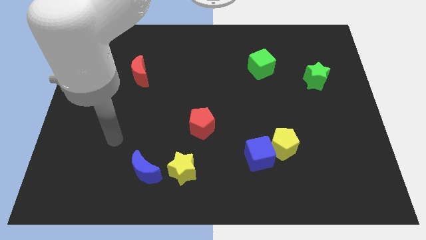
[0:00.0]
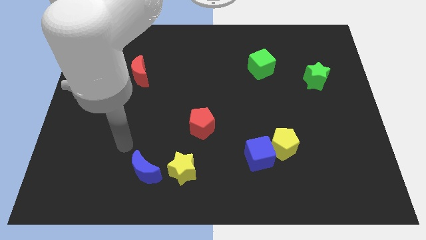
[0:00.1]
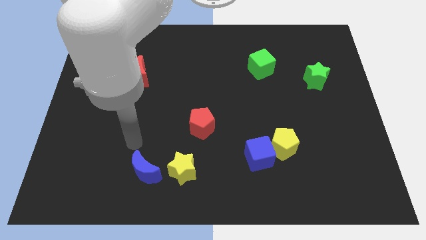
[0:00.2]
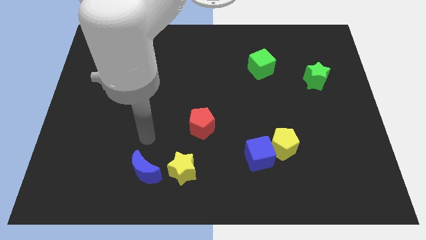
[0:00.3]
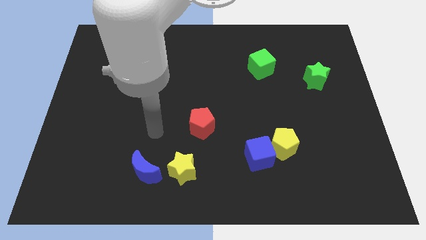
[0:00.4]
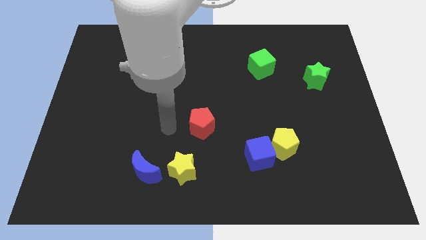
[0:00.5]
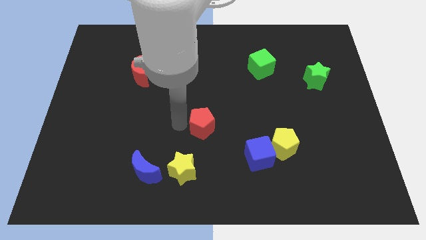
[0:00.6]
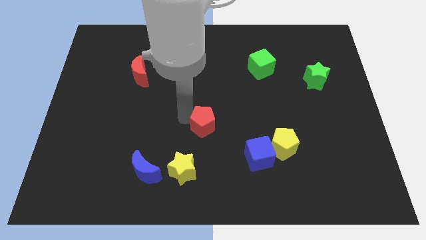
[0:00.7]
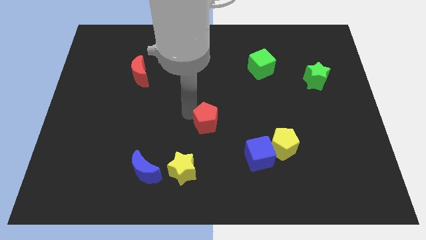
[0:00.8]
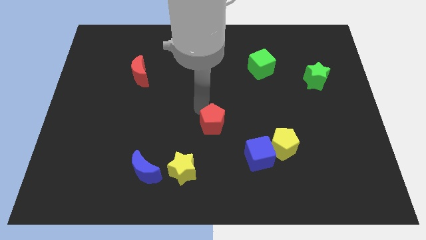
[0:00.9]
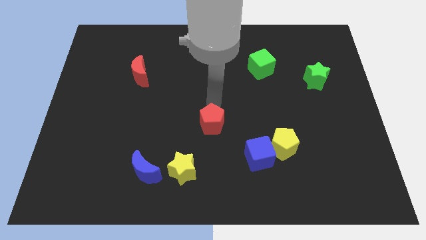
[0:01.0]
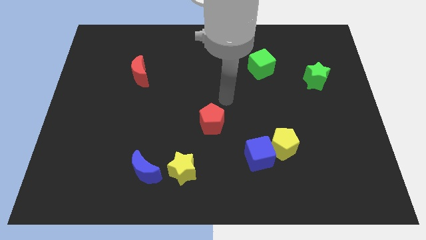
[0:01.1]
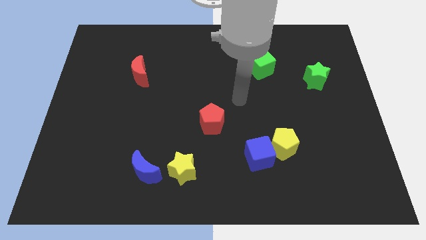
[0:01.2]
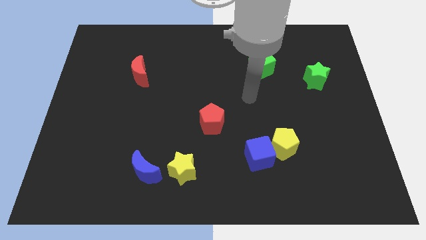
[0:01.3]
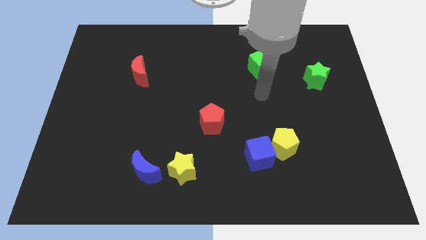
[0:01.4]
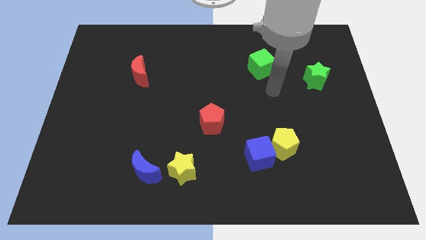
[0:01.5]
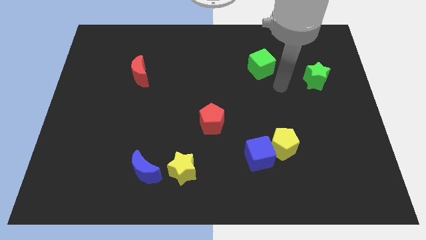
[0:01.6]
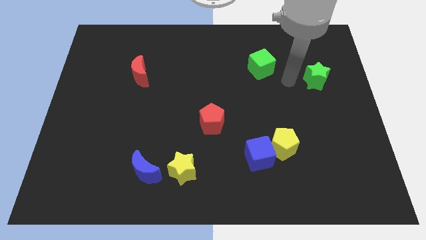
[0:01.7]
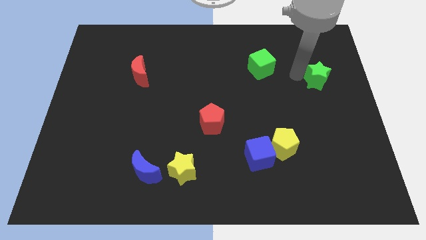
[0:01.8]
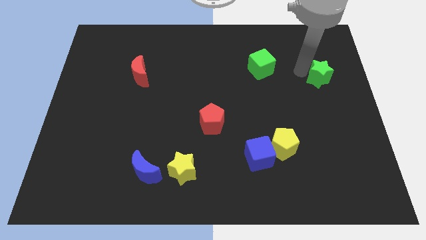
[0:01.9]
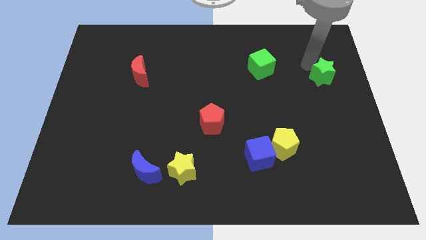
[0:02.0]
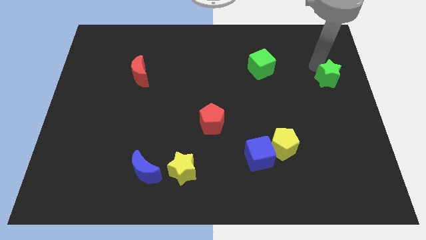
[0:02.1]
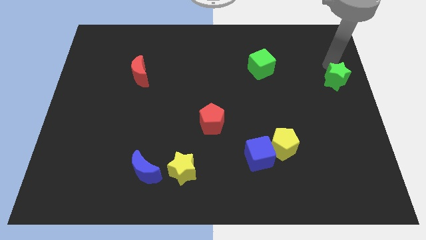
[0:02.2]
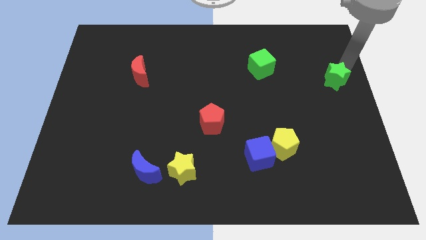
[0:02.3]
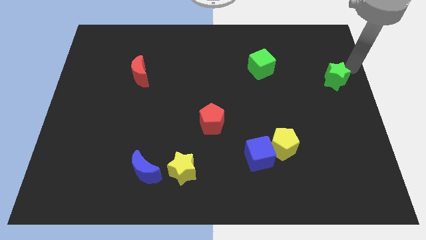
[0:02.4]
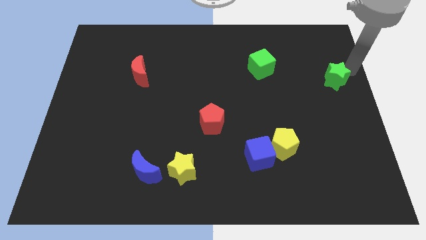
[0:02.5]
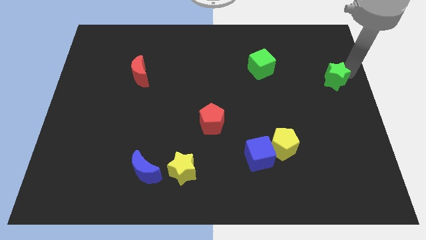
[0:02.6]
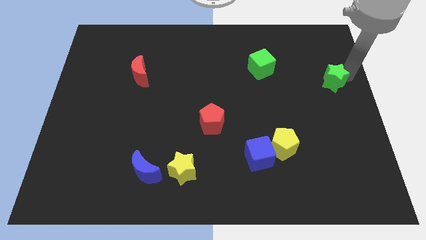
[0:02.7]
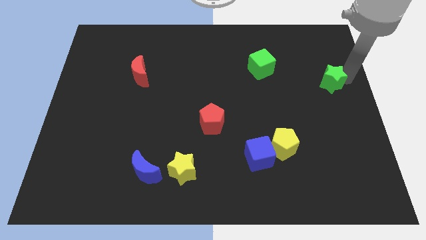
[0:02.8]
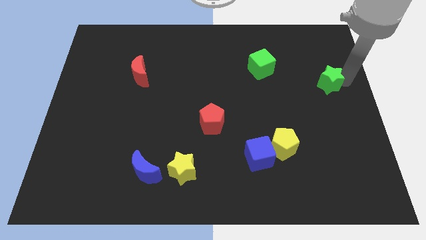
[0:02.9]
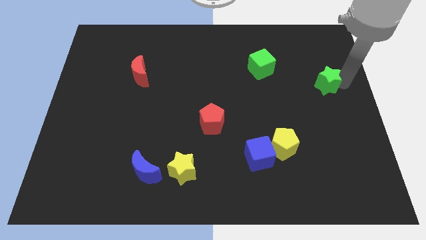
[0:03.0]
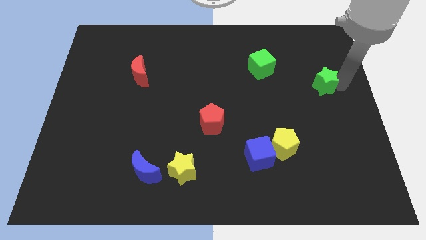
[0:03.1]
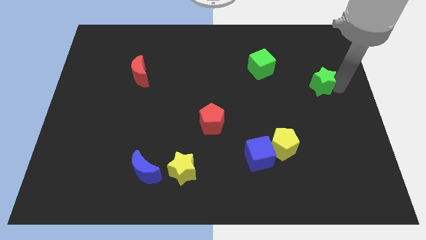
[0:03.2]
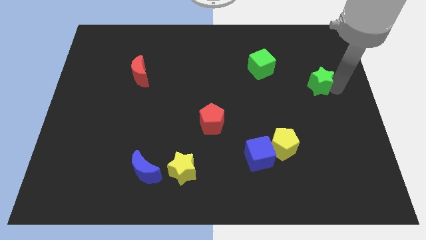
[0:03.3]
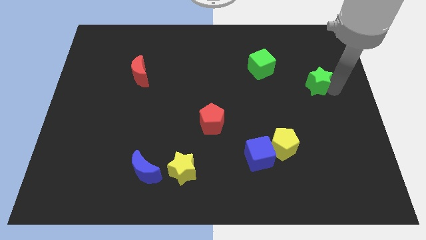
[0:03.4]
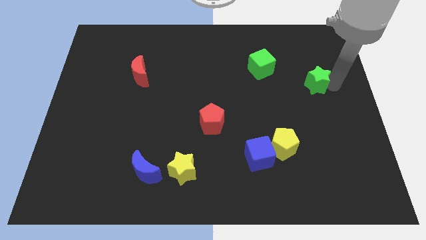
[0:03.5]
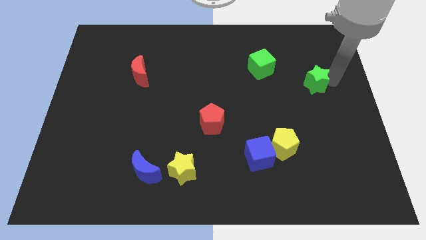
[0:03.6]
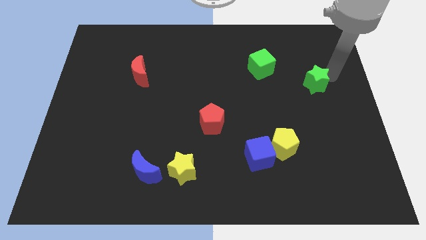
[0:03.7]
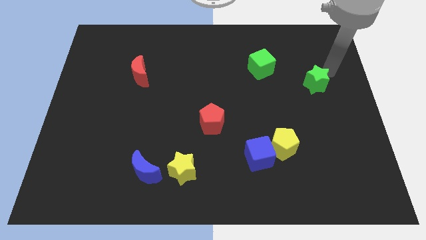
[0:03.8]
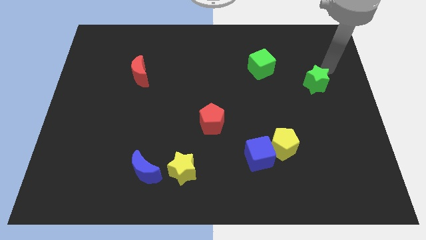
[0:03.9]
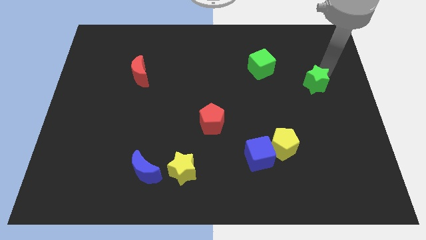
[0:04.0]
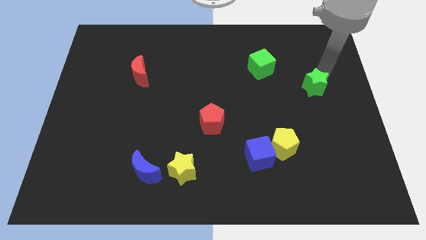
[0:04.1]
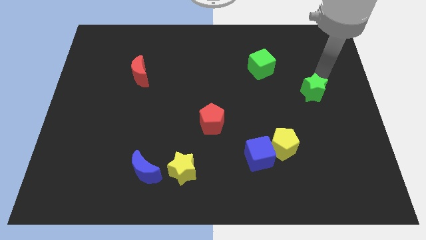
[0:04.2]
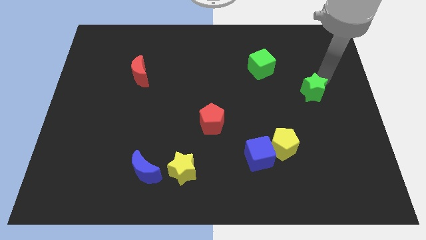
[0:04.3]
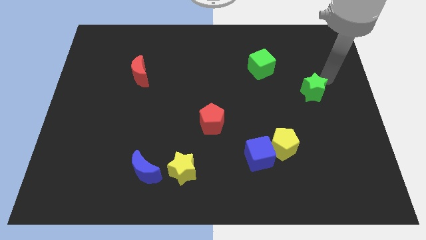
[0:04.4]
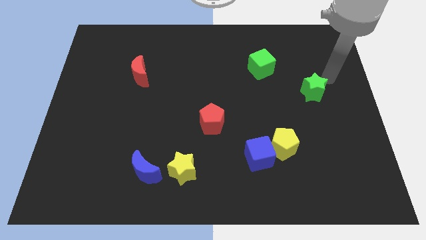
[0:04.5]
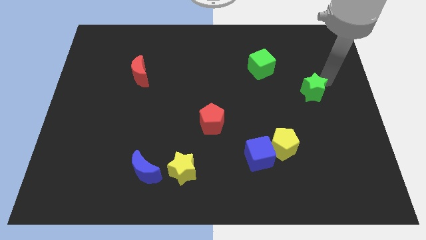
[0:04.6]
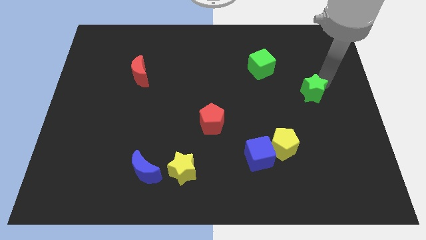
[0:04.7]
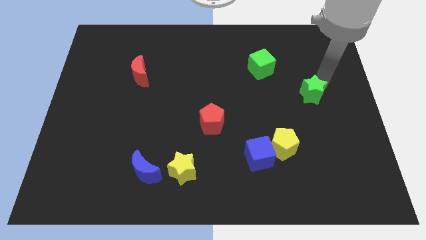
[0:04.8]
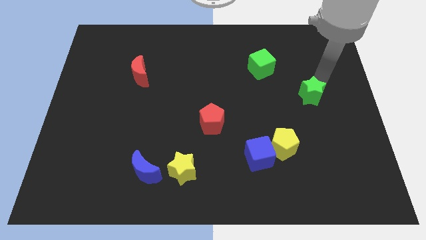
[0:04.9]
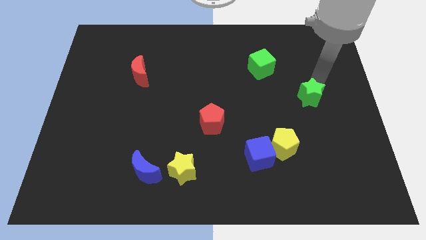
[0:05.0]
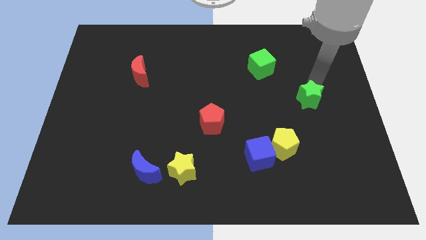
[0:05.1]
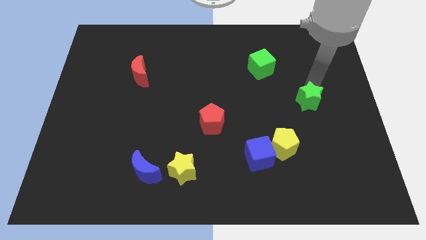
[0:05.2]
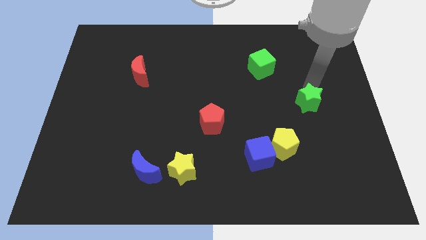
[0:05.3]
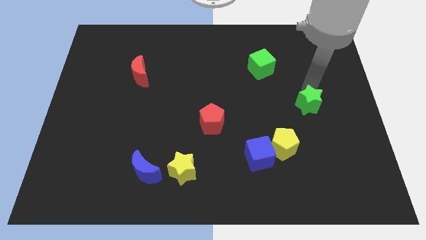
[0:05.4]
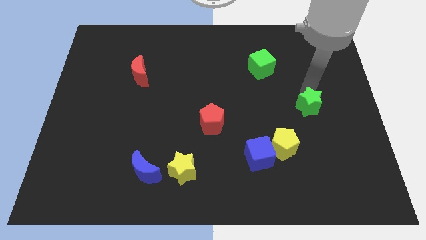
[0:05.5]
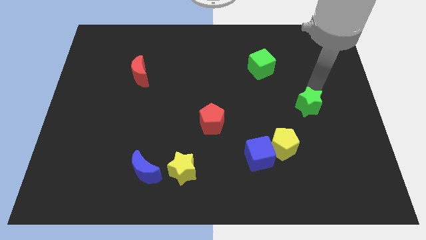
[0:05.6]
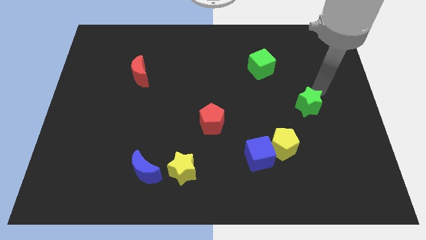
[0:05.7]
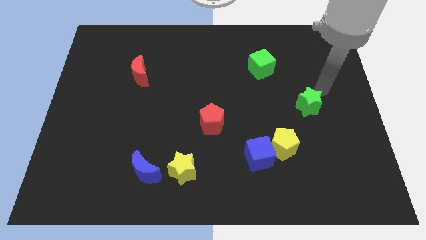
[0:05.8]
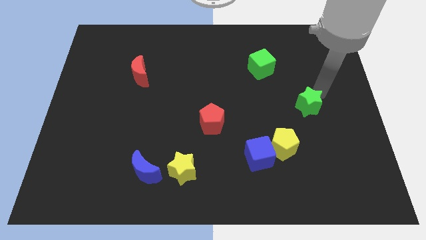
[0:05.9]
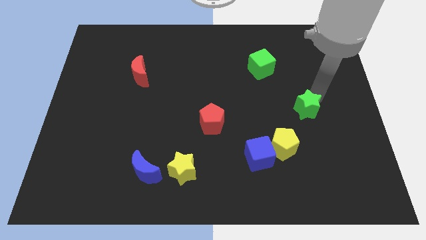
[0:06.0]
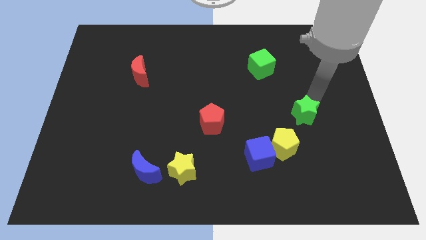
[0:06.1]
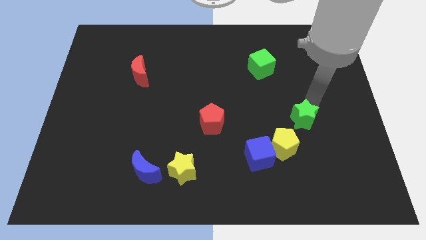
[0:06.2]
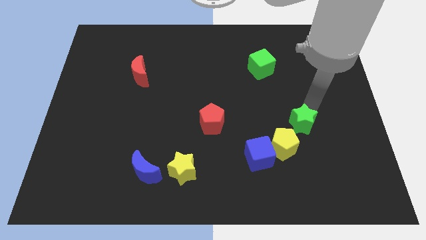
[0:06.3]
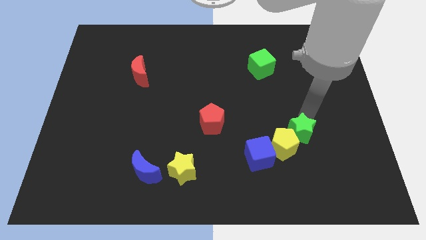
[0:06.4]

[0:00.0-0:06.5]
slide the green star close to the yellow pentagon

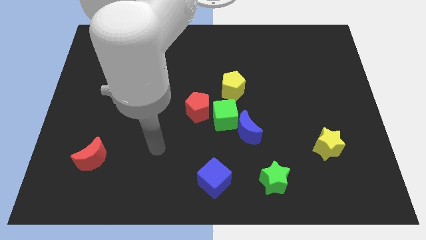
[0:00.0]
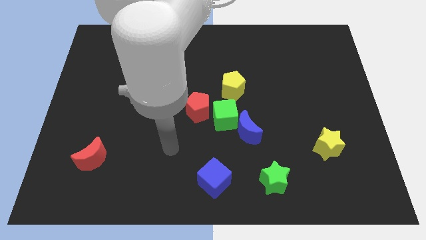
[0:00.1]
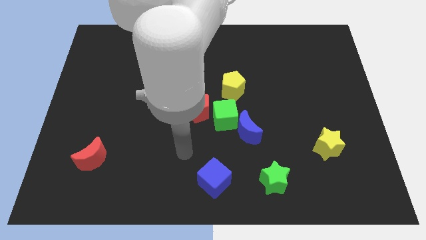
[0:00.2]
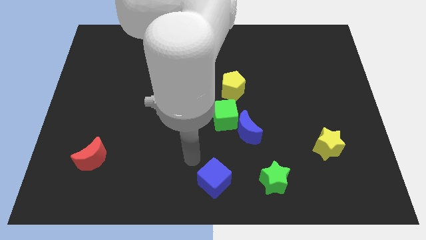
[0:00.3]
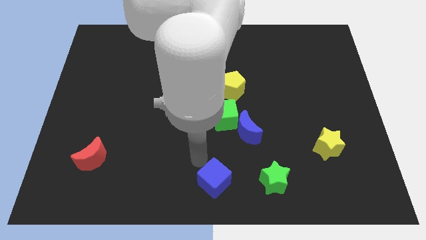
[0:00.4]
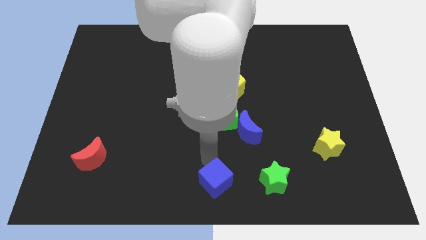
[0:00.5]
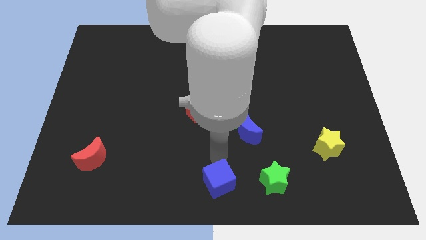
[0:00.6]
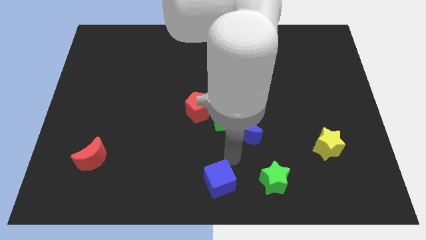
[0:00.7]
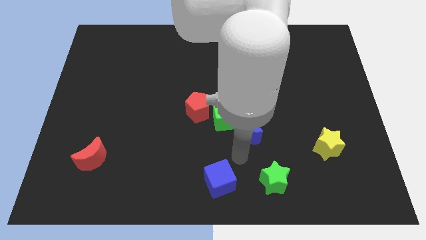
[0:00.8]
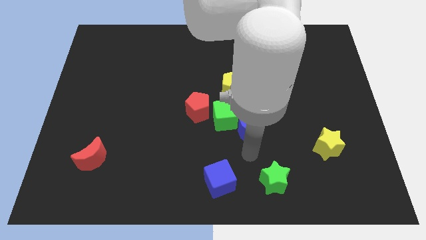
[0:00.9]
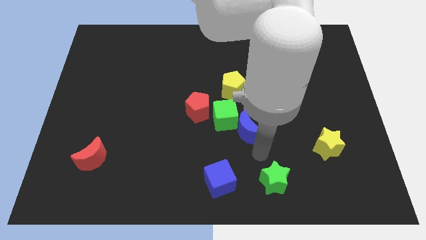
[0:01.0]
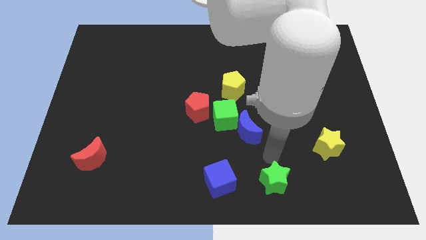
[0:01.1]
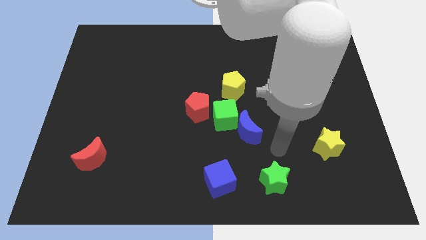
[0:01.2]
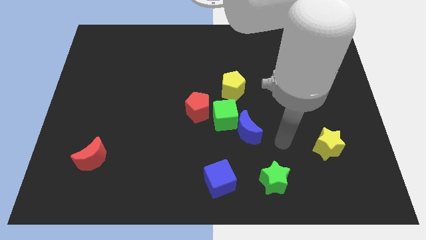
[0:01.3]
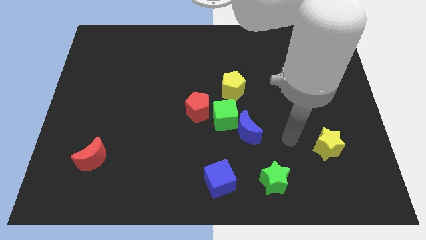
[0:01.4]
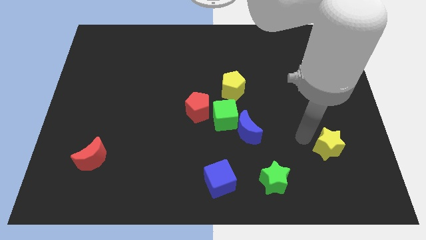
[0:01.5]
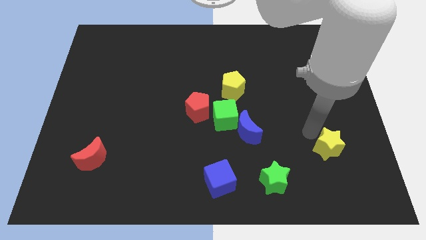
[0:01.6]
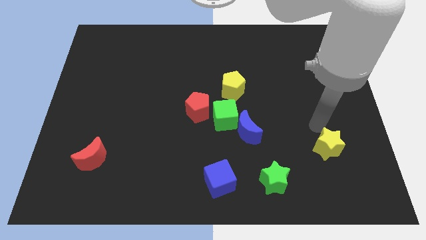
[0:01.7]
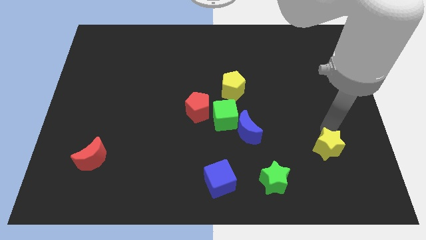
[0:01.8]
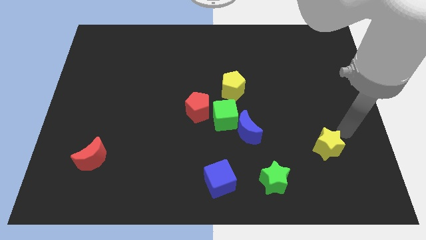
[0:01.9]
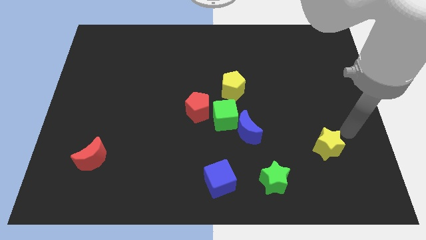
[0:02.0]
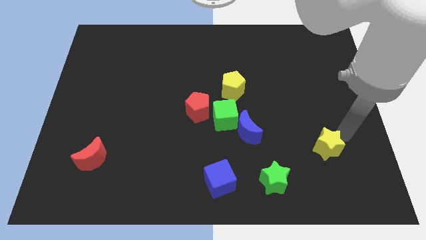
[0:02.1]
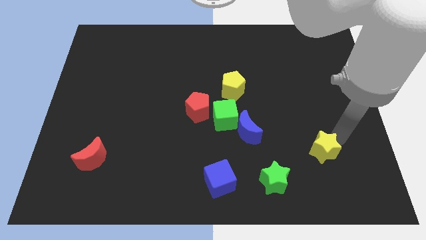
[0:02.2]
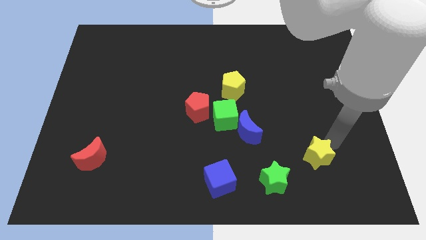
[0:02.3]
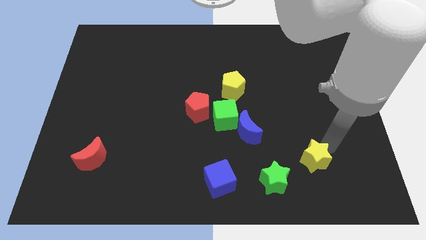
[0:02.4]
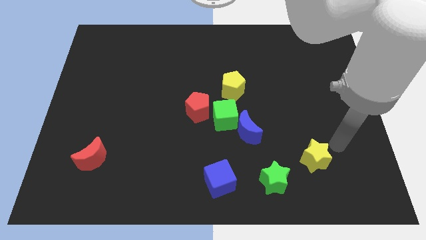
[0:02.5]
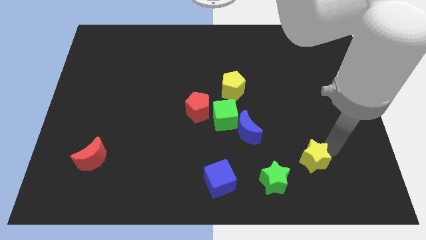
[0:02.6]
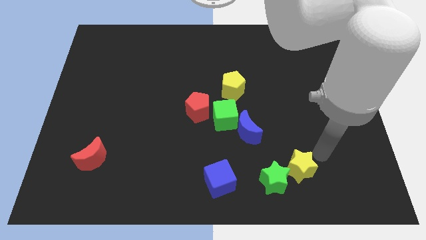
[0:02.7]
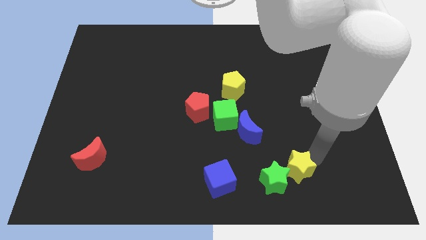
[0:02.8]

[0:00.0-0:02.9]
push the yellow star towards the green star
